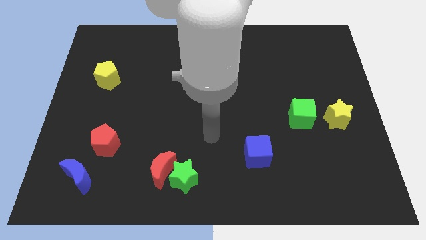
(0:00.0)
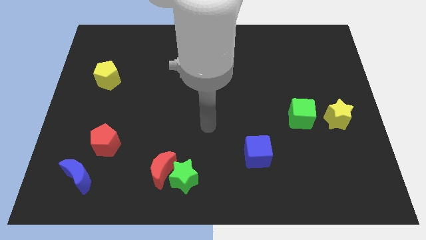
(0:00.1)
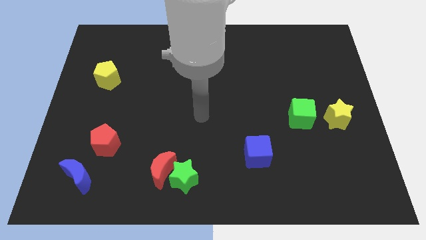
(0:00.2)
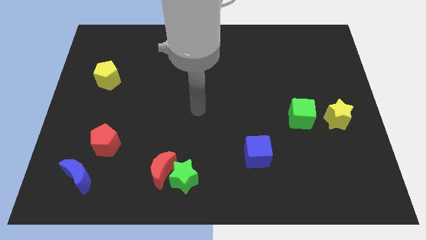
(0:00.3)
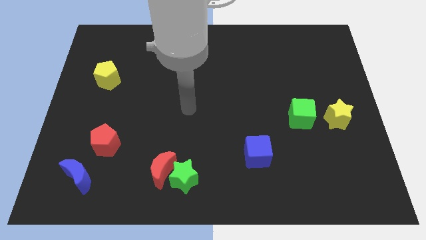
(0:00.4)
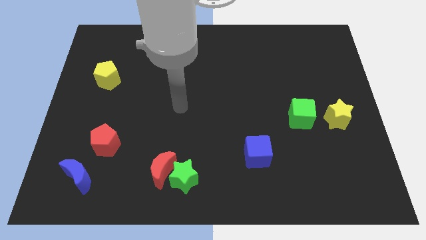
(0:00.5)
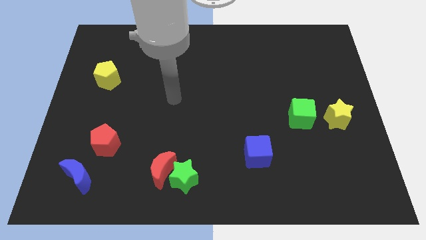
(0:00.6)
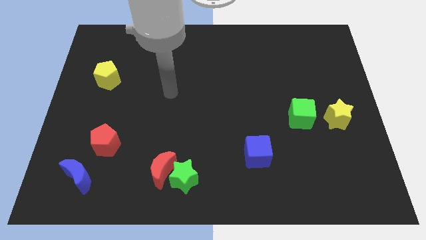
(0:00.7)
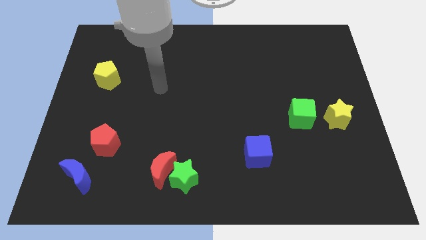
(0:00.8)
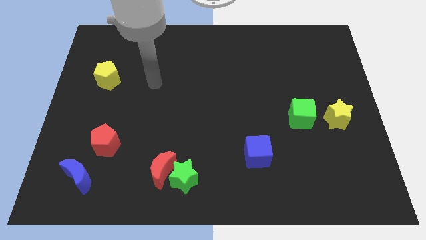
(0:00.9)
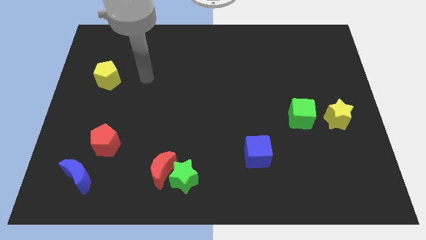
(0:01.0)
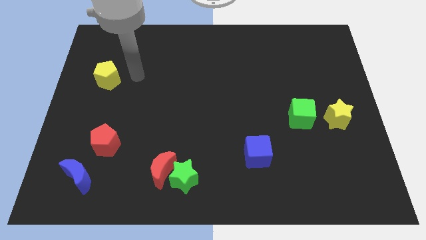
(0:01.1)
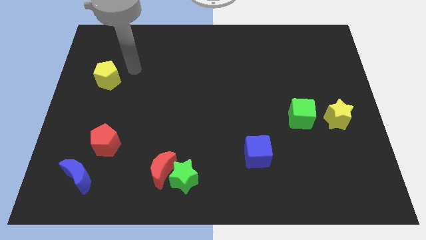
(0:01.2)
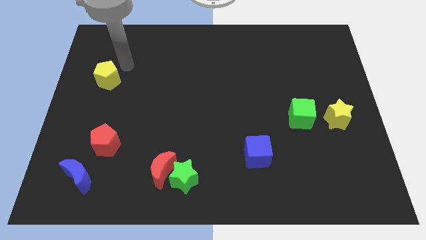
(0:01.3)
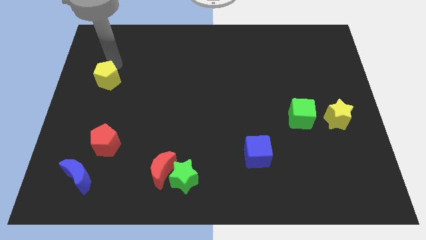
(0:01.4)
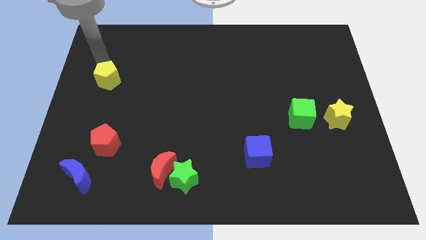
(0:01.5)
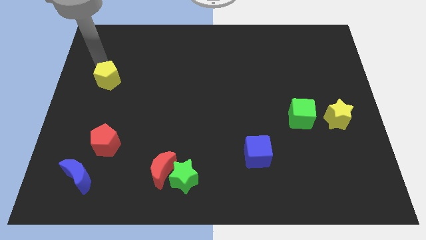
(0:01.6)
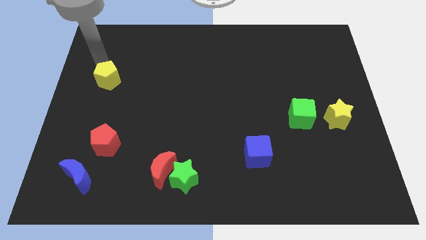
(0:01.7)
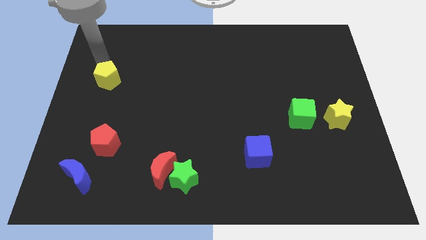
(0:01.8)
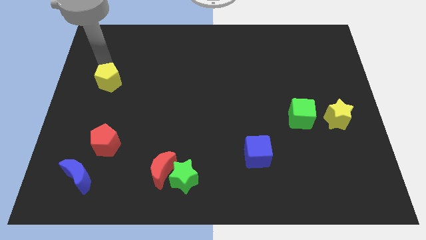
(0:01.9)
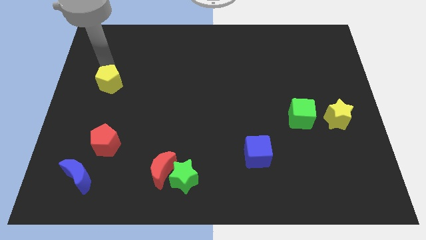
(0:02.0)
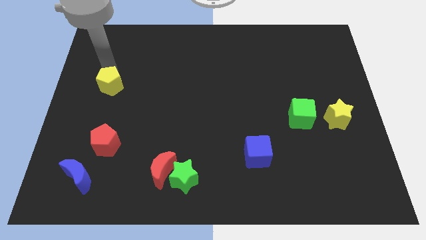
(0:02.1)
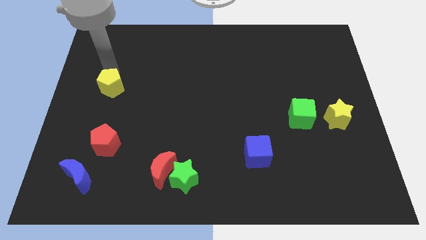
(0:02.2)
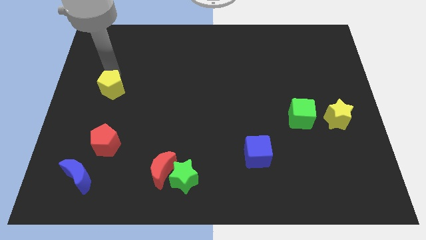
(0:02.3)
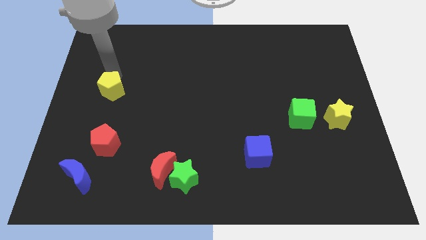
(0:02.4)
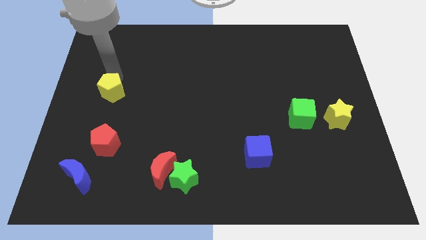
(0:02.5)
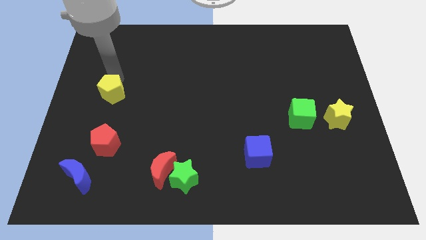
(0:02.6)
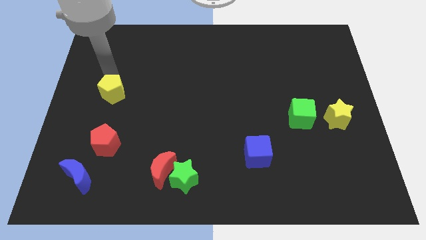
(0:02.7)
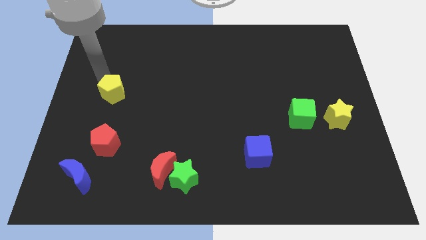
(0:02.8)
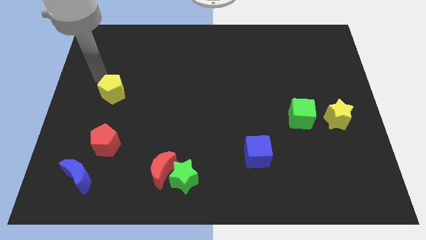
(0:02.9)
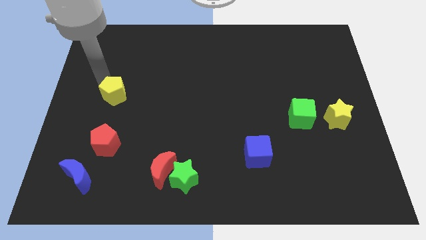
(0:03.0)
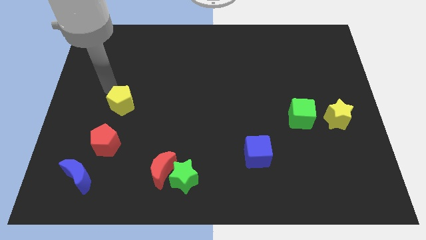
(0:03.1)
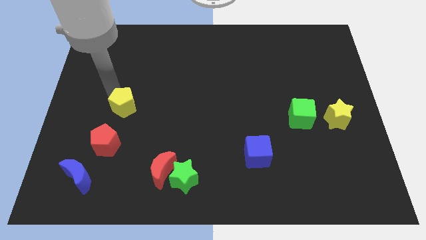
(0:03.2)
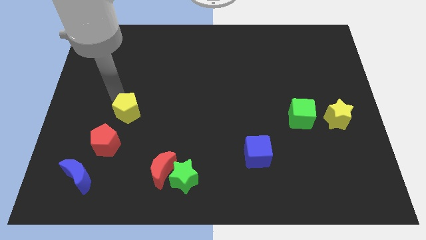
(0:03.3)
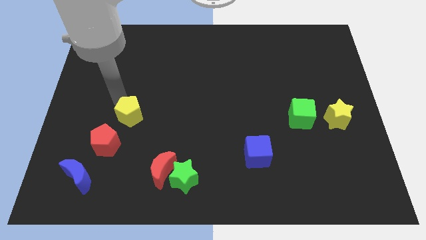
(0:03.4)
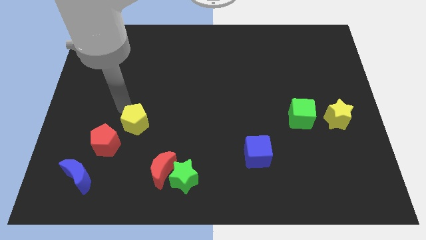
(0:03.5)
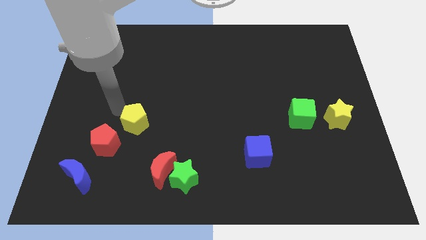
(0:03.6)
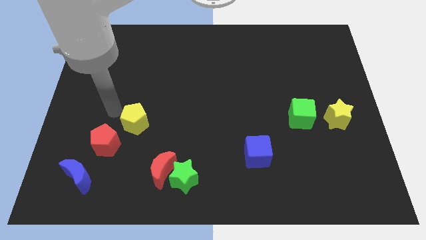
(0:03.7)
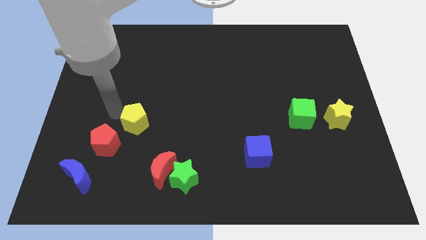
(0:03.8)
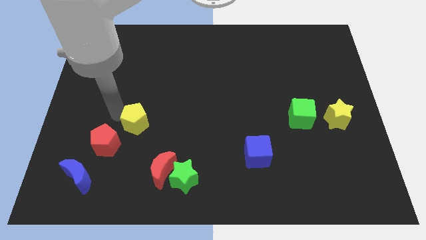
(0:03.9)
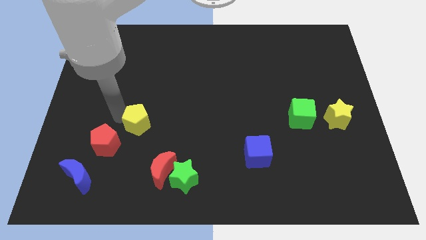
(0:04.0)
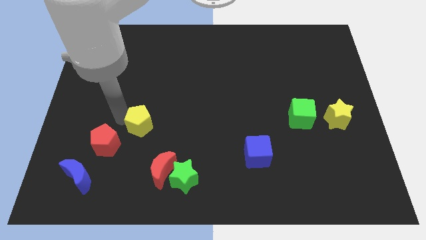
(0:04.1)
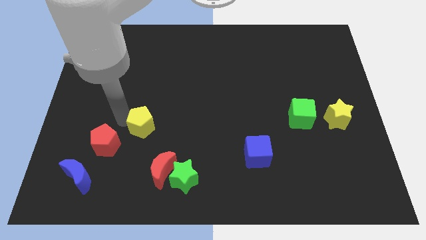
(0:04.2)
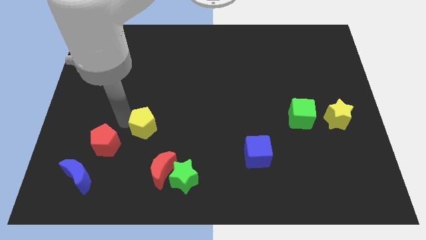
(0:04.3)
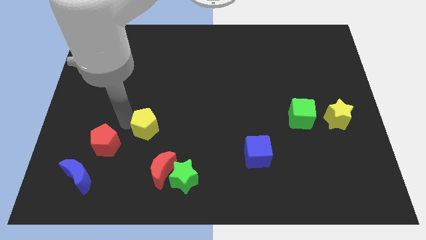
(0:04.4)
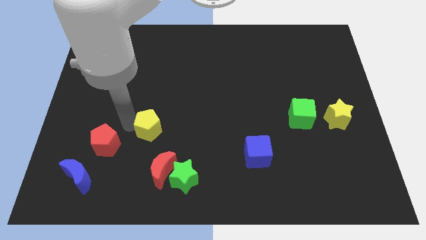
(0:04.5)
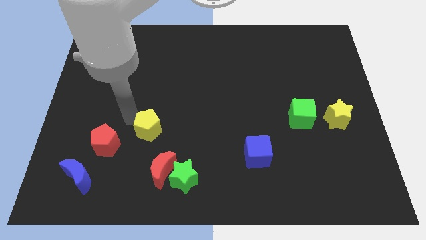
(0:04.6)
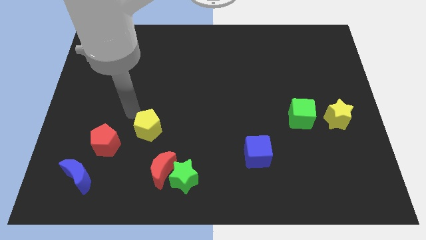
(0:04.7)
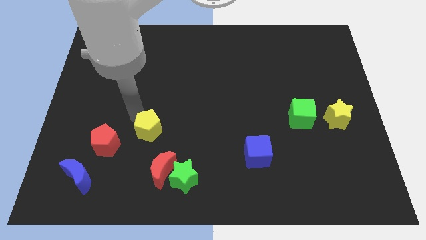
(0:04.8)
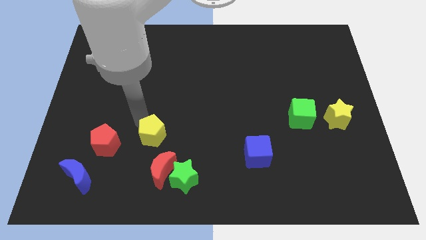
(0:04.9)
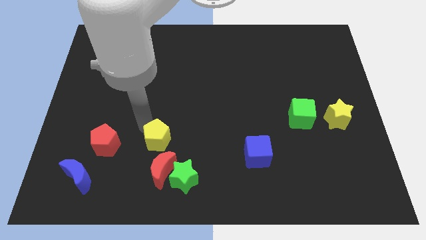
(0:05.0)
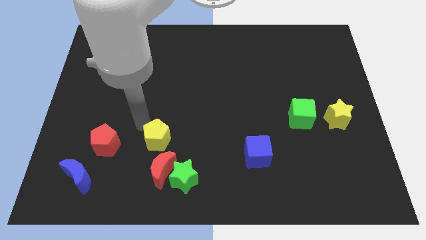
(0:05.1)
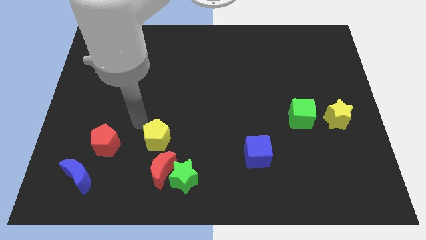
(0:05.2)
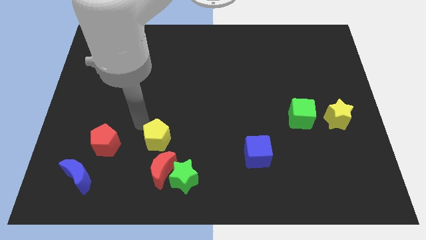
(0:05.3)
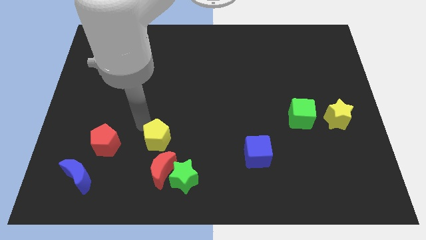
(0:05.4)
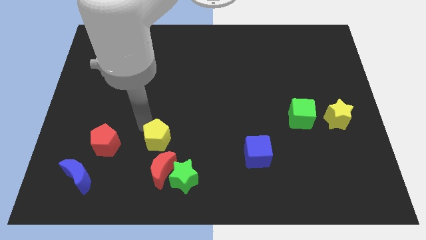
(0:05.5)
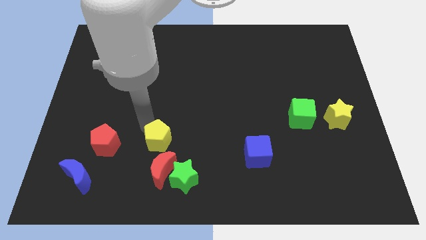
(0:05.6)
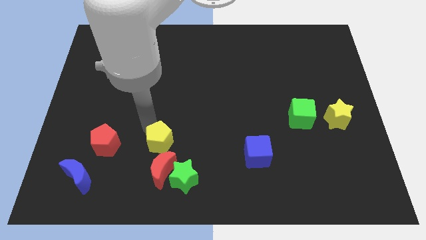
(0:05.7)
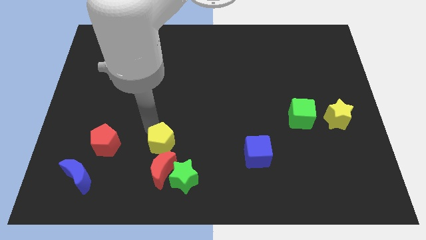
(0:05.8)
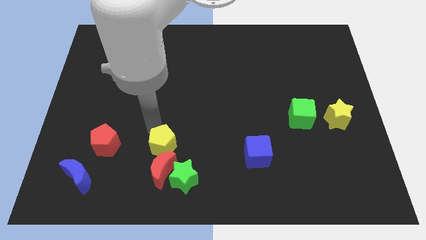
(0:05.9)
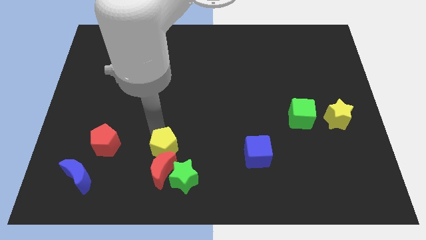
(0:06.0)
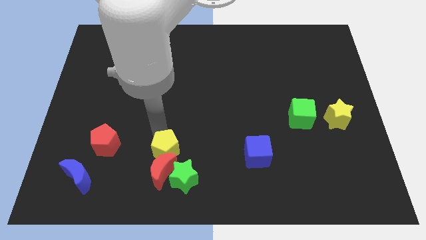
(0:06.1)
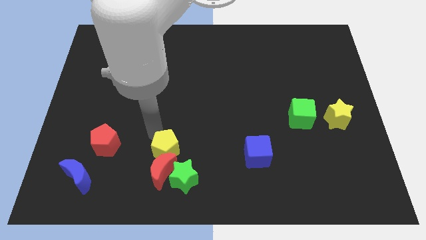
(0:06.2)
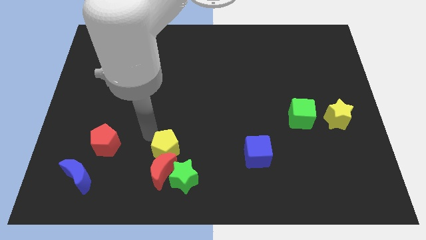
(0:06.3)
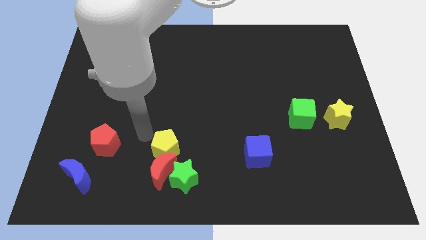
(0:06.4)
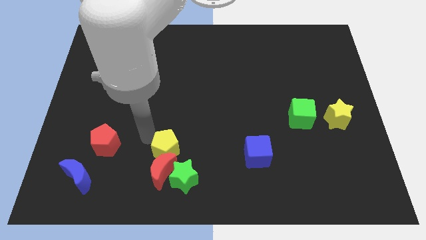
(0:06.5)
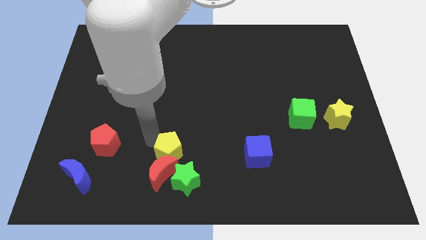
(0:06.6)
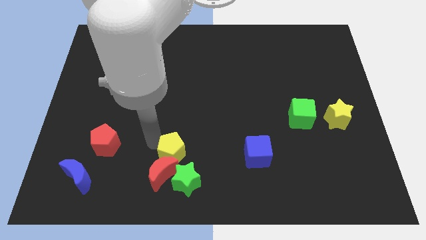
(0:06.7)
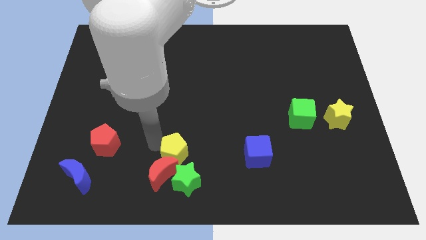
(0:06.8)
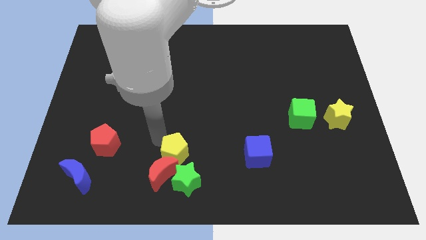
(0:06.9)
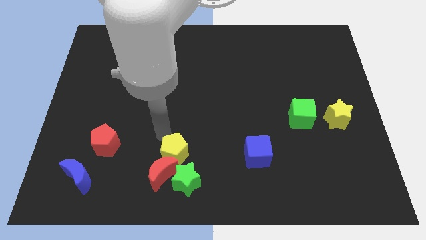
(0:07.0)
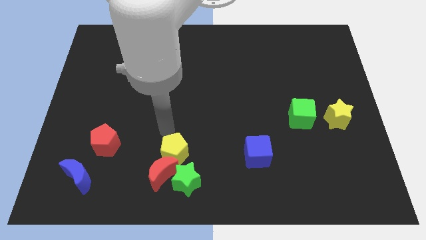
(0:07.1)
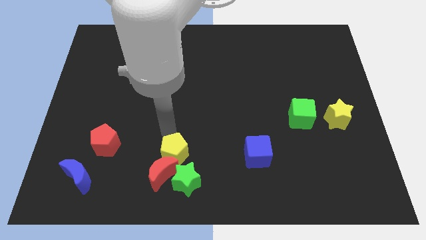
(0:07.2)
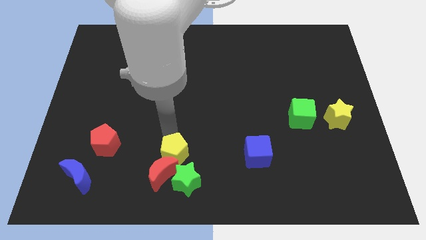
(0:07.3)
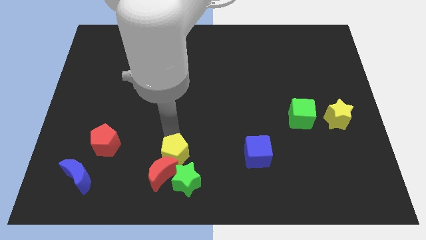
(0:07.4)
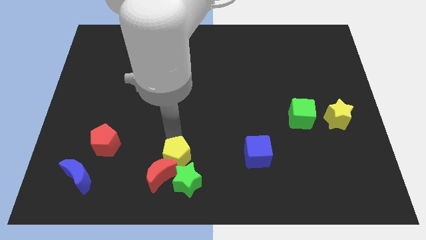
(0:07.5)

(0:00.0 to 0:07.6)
put the yellow pentagon towards the green star

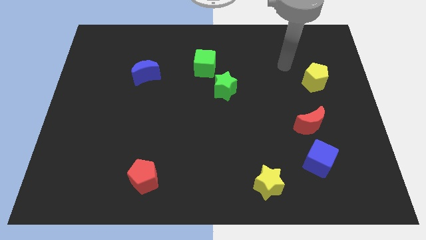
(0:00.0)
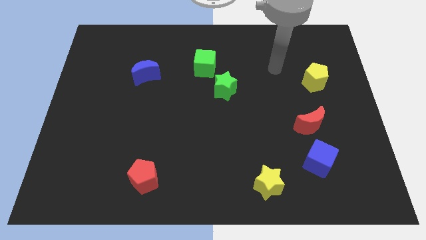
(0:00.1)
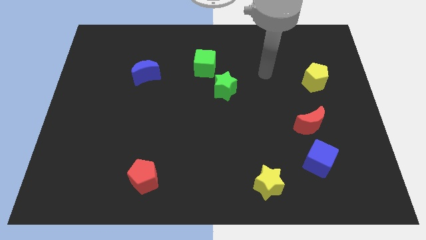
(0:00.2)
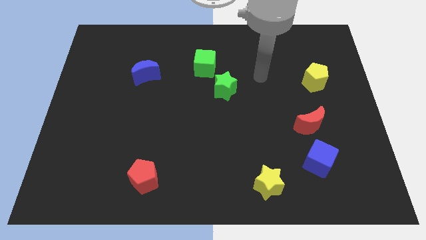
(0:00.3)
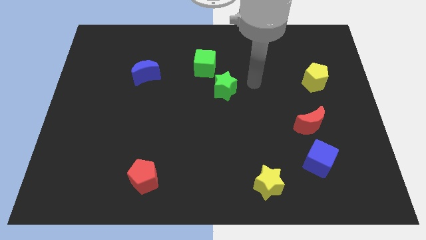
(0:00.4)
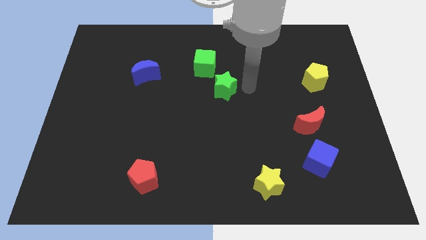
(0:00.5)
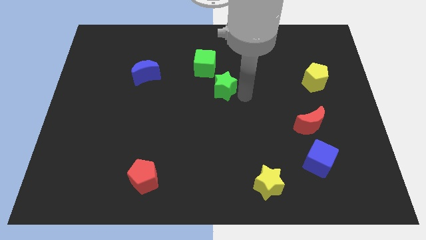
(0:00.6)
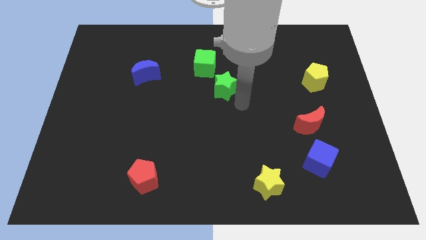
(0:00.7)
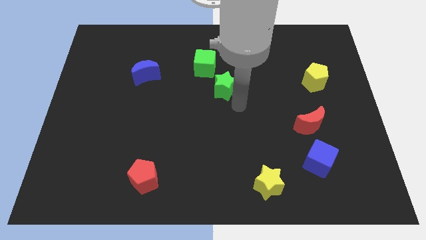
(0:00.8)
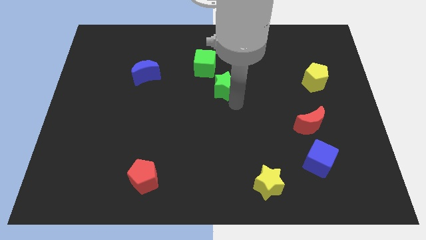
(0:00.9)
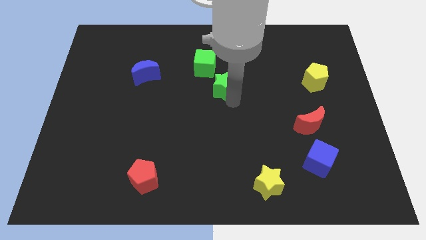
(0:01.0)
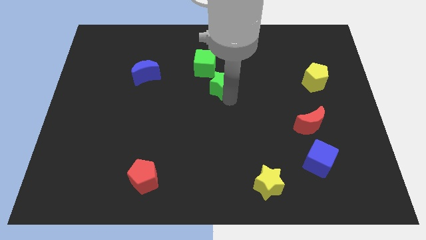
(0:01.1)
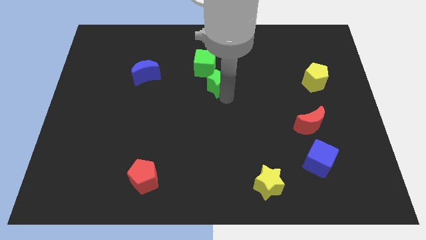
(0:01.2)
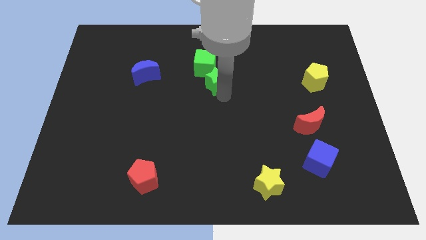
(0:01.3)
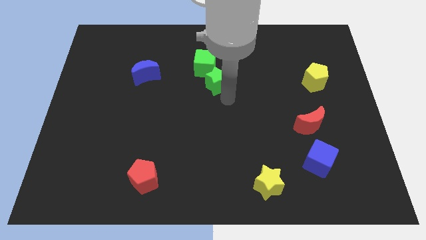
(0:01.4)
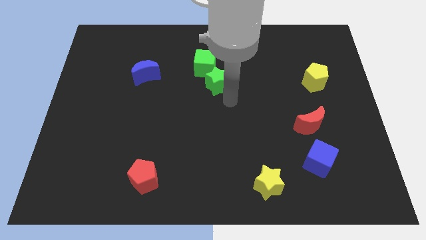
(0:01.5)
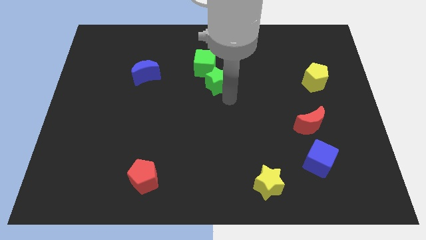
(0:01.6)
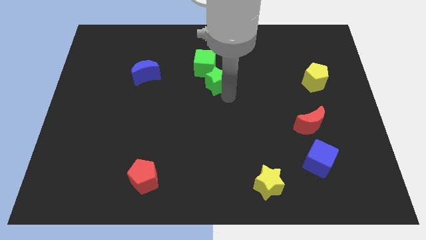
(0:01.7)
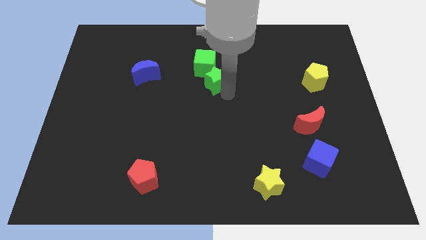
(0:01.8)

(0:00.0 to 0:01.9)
slide the green star towards the green cube
